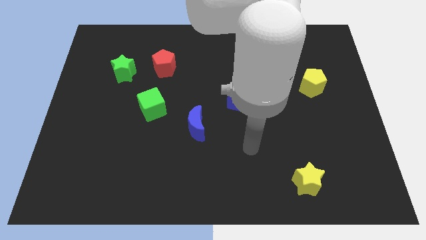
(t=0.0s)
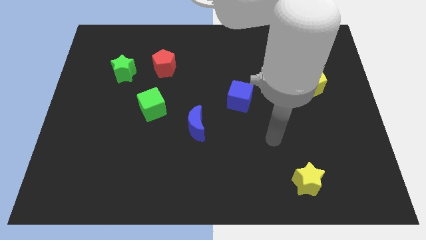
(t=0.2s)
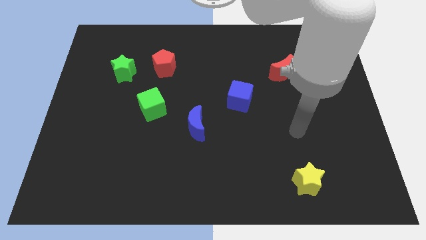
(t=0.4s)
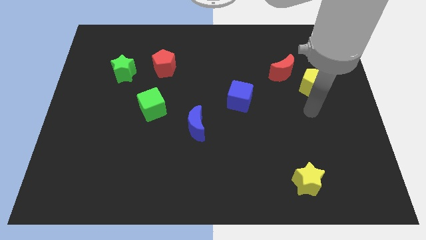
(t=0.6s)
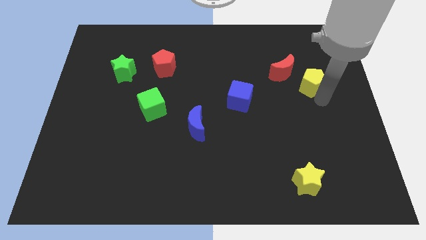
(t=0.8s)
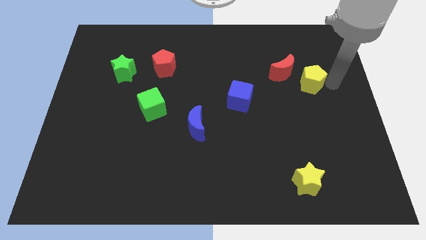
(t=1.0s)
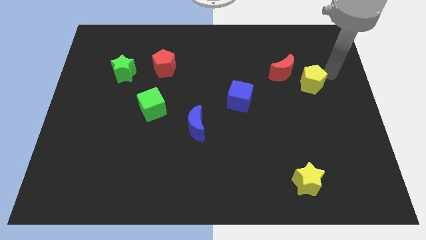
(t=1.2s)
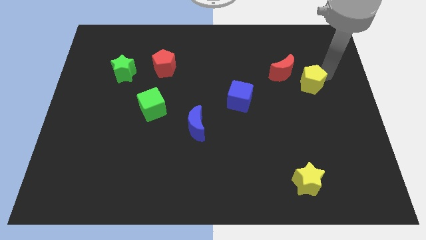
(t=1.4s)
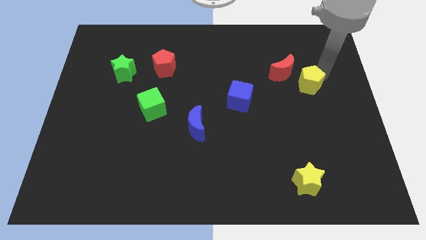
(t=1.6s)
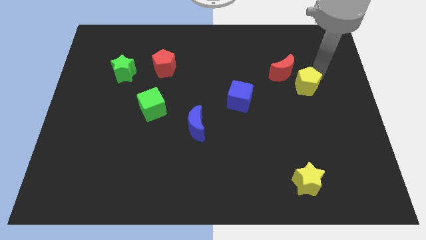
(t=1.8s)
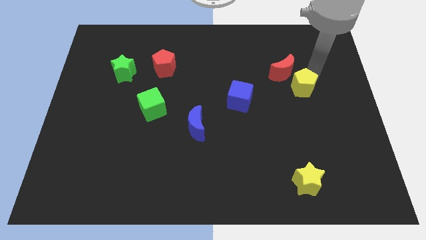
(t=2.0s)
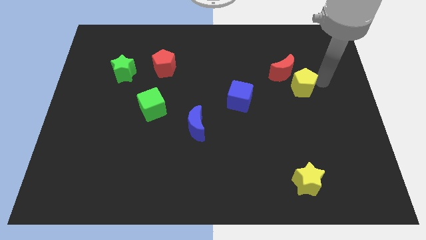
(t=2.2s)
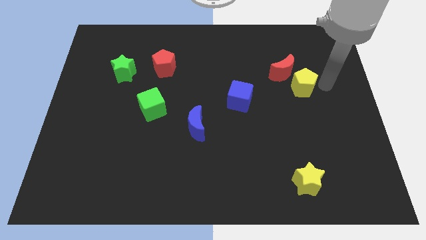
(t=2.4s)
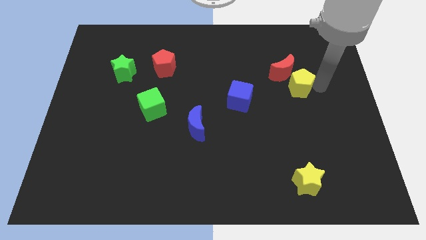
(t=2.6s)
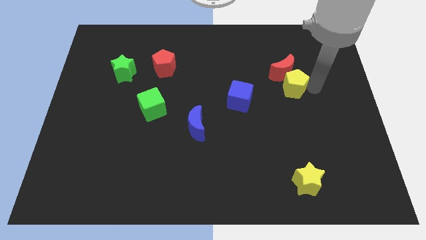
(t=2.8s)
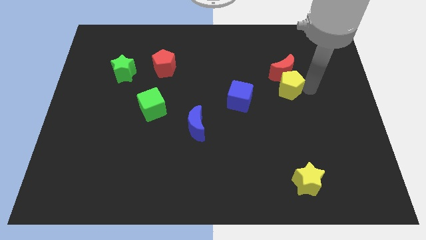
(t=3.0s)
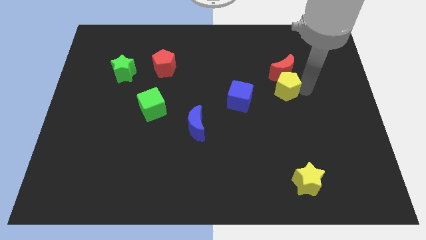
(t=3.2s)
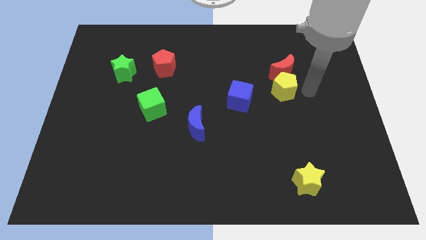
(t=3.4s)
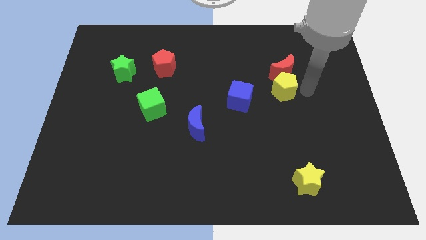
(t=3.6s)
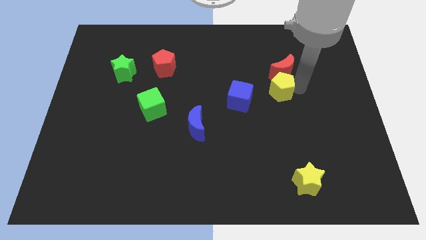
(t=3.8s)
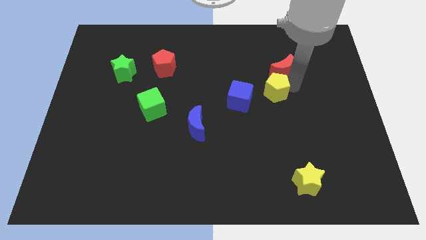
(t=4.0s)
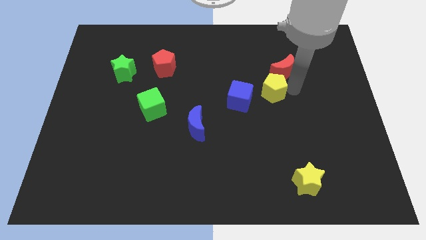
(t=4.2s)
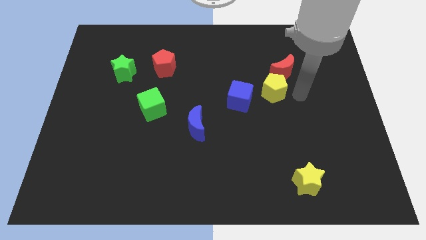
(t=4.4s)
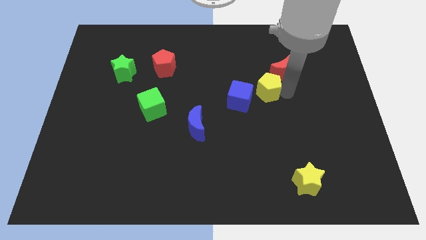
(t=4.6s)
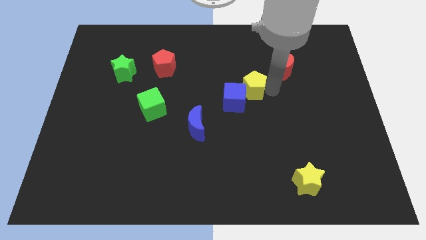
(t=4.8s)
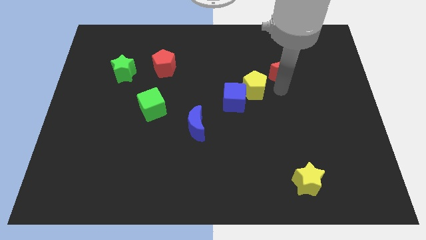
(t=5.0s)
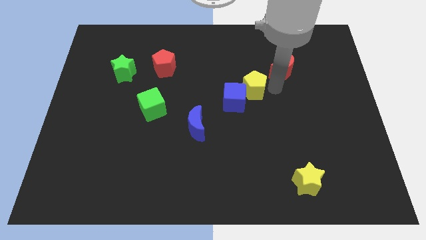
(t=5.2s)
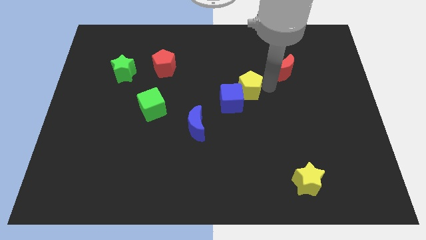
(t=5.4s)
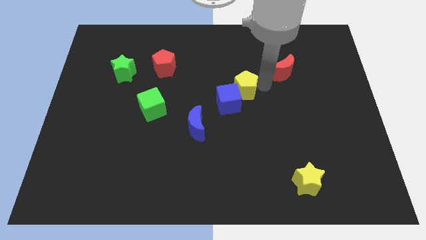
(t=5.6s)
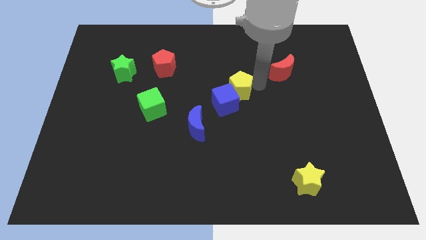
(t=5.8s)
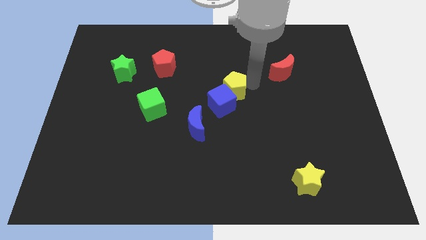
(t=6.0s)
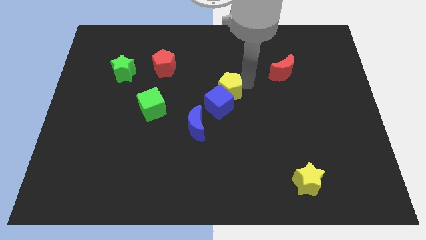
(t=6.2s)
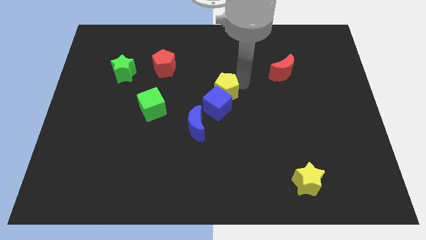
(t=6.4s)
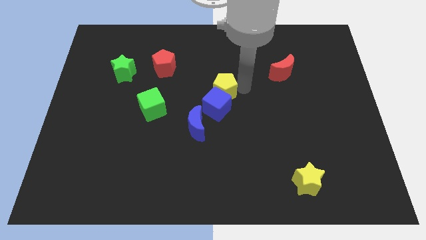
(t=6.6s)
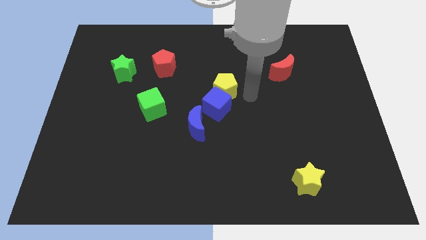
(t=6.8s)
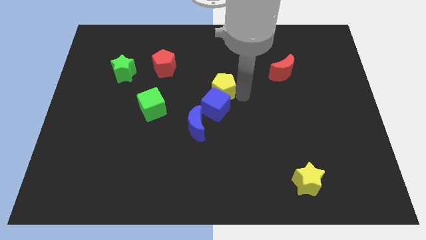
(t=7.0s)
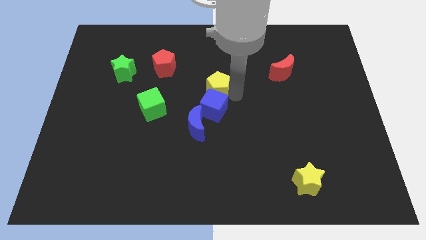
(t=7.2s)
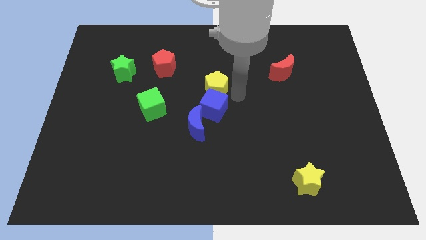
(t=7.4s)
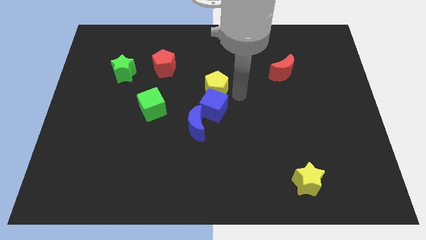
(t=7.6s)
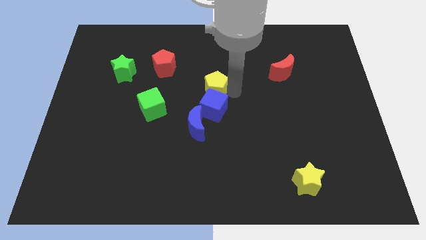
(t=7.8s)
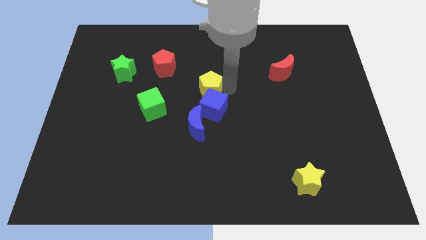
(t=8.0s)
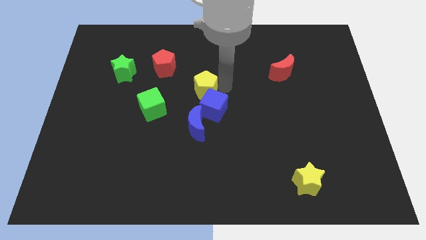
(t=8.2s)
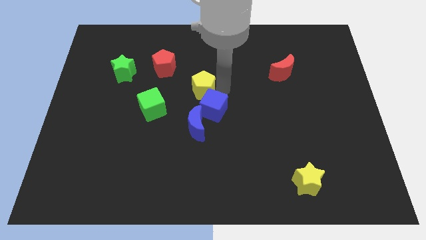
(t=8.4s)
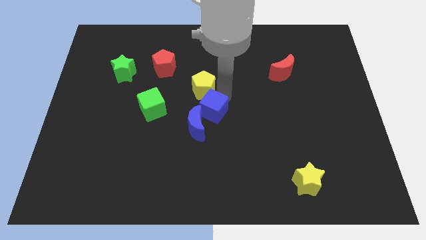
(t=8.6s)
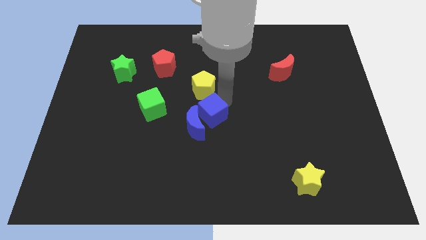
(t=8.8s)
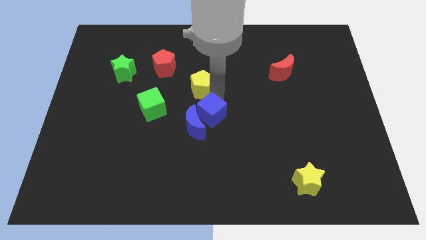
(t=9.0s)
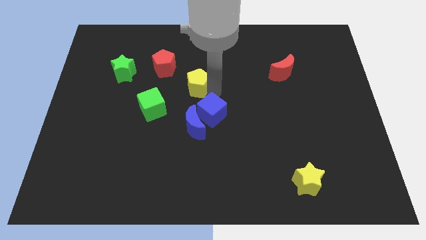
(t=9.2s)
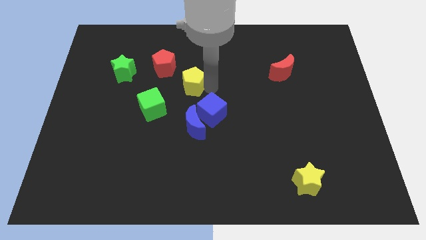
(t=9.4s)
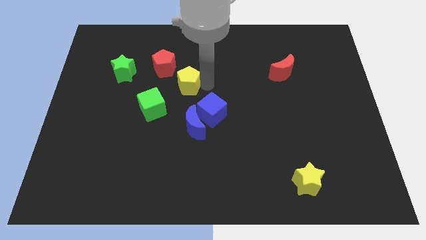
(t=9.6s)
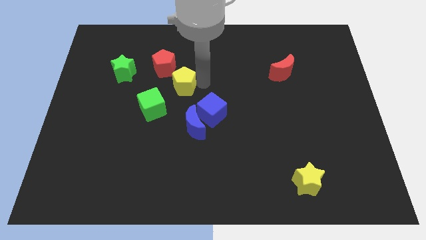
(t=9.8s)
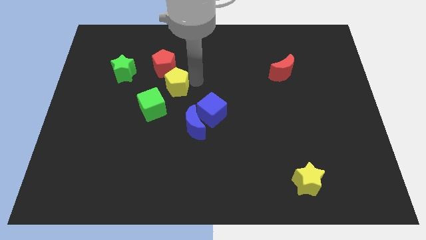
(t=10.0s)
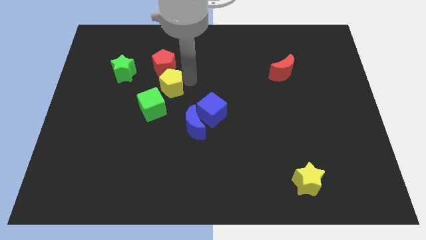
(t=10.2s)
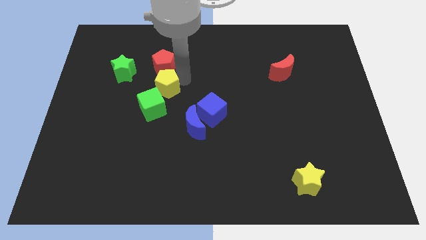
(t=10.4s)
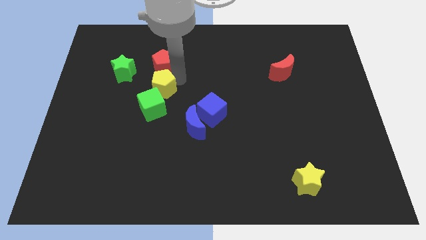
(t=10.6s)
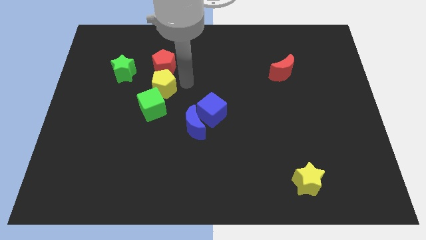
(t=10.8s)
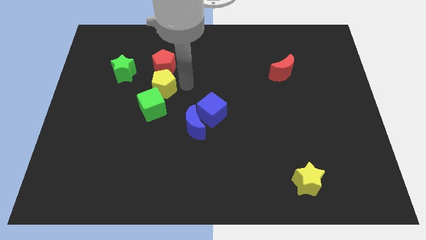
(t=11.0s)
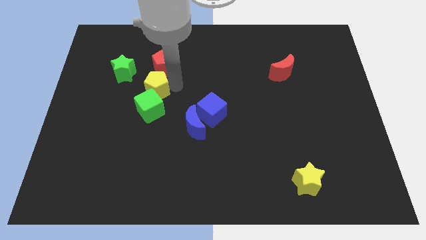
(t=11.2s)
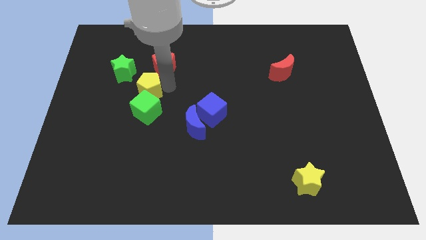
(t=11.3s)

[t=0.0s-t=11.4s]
move the yellow pentagon to the top left side of the green cube

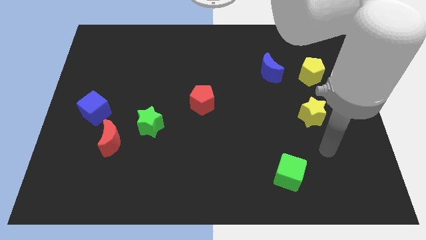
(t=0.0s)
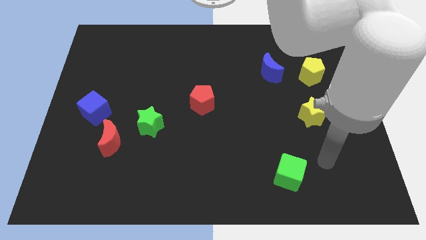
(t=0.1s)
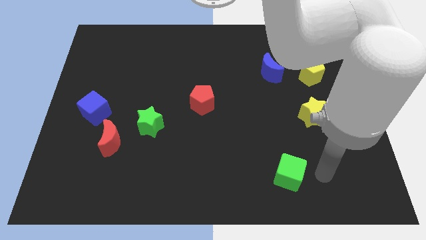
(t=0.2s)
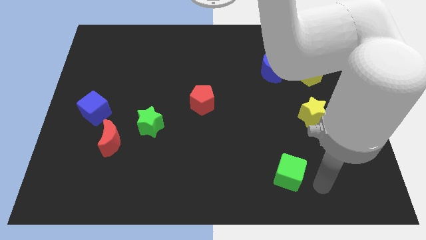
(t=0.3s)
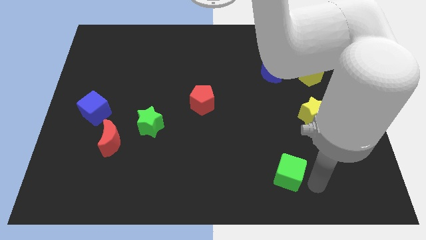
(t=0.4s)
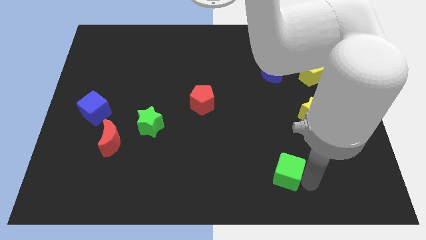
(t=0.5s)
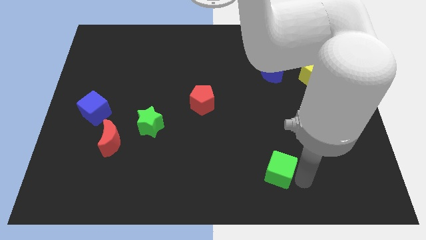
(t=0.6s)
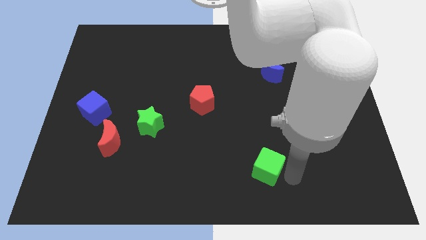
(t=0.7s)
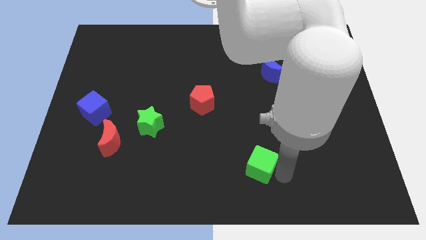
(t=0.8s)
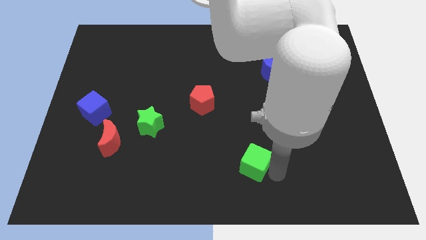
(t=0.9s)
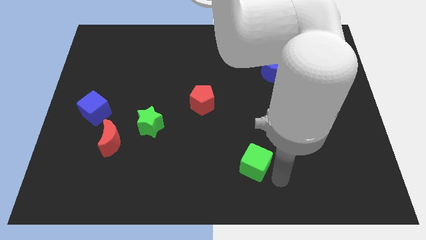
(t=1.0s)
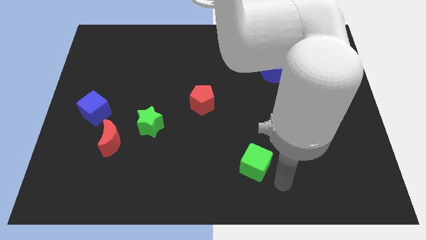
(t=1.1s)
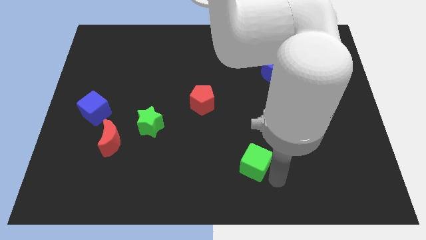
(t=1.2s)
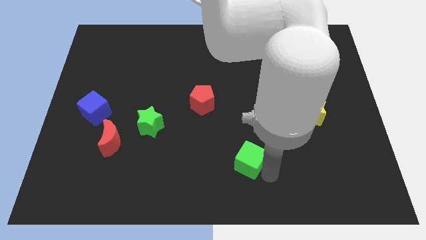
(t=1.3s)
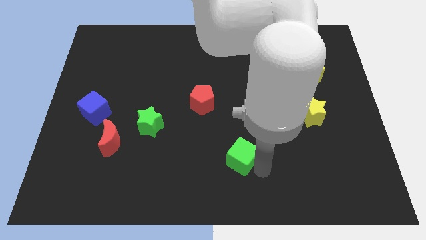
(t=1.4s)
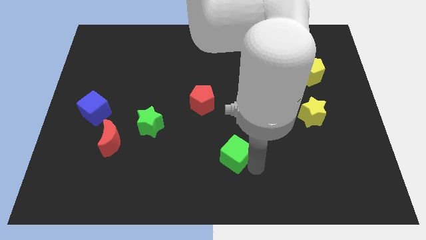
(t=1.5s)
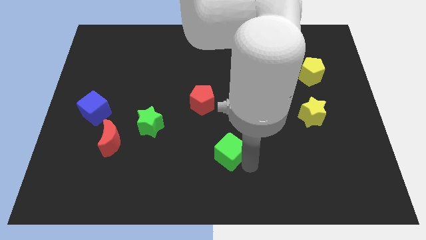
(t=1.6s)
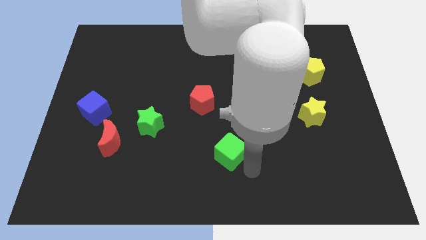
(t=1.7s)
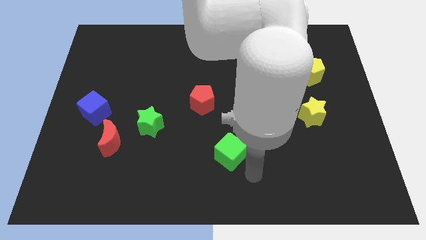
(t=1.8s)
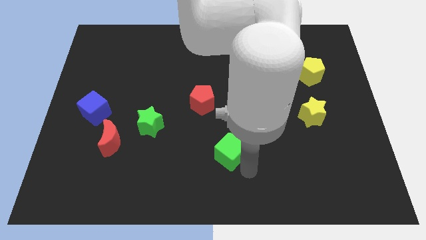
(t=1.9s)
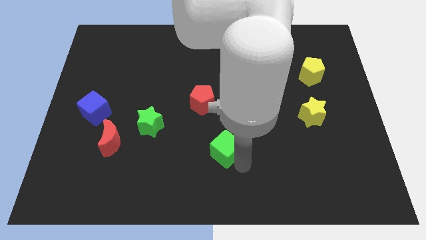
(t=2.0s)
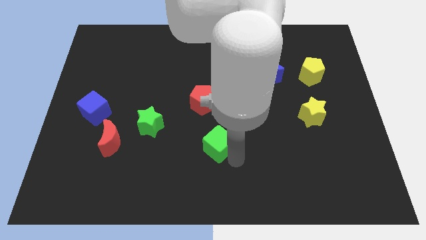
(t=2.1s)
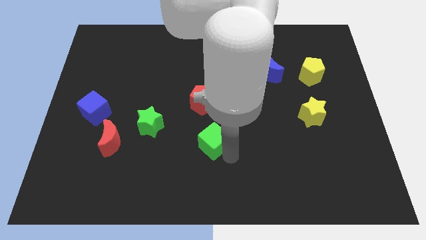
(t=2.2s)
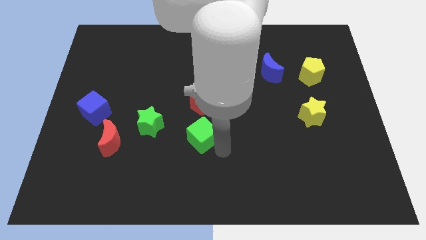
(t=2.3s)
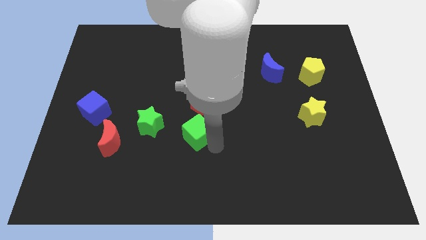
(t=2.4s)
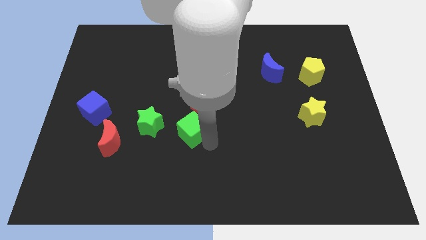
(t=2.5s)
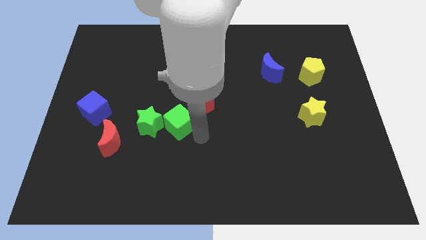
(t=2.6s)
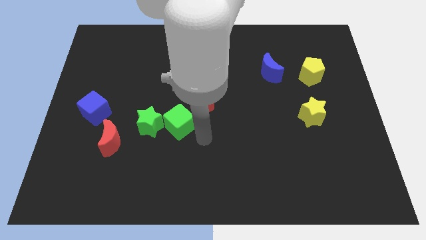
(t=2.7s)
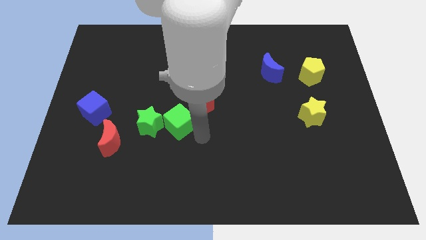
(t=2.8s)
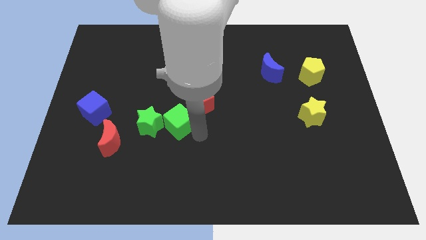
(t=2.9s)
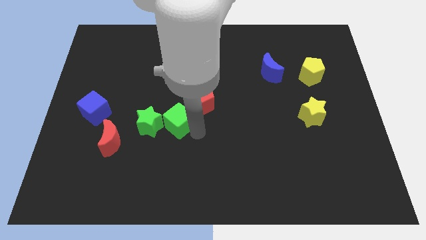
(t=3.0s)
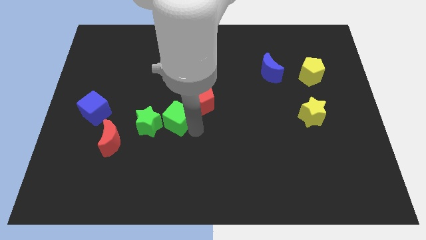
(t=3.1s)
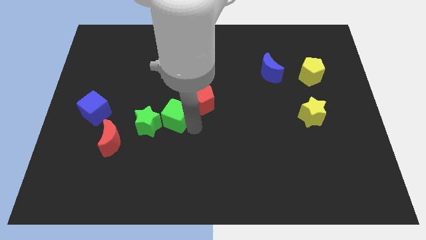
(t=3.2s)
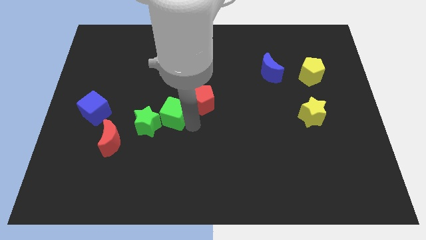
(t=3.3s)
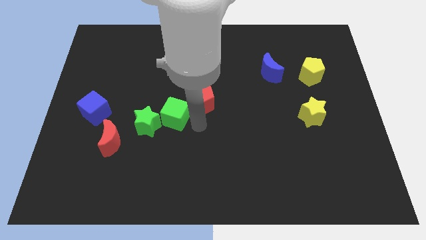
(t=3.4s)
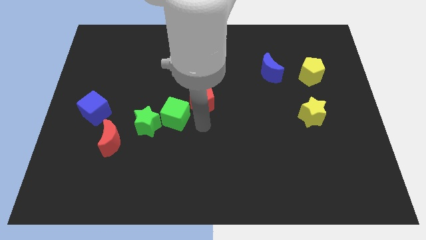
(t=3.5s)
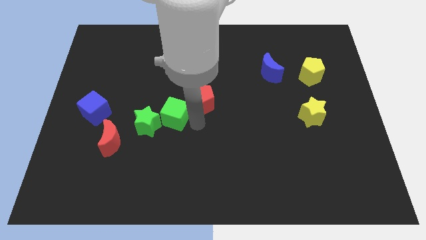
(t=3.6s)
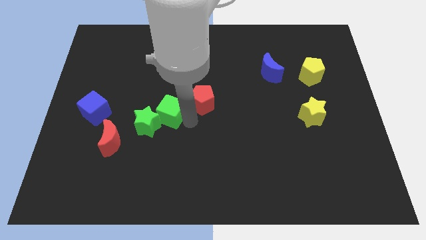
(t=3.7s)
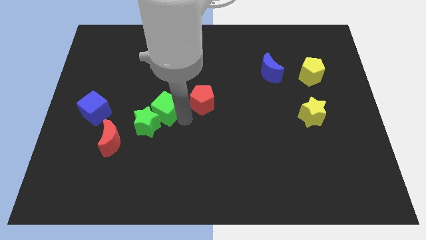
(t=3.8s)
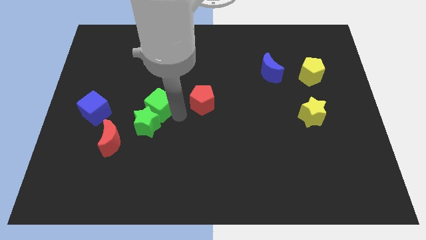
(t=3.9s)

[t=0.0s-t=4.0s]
move the green cube to the right of the blue cube
